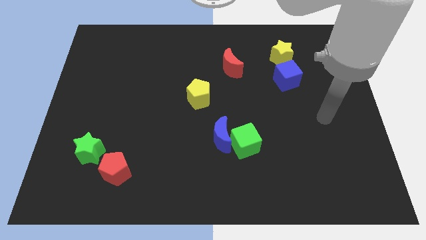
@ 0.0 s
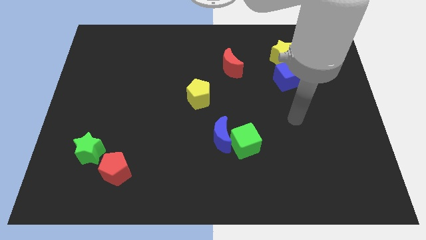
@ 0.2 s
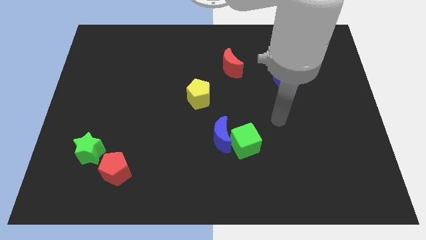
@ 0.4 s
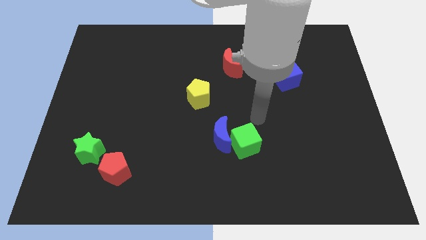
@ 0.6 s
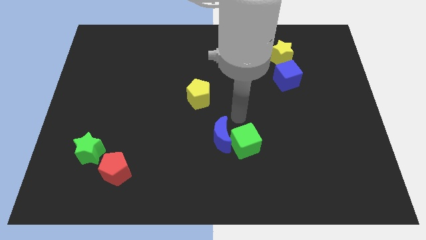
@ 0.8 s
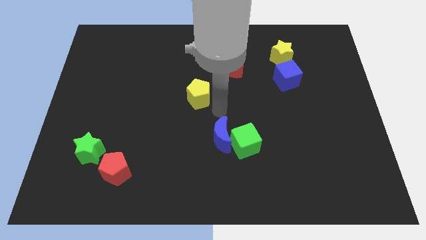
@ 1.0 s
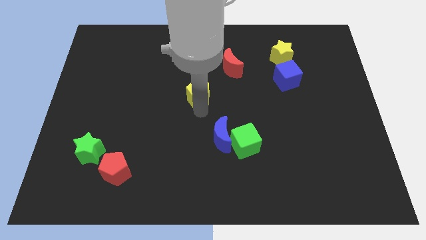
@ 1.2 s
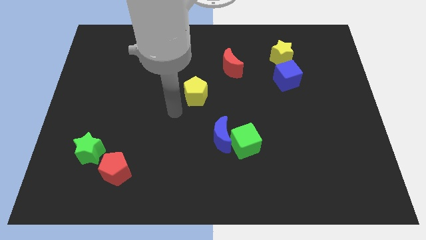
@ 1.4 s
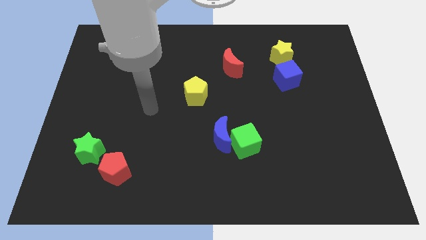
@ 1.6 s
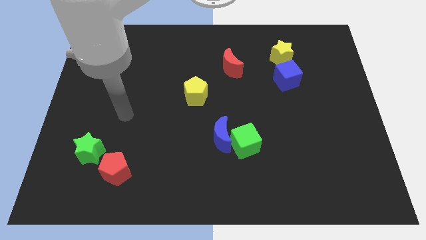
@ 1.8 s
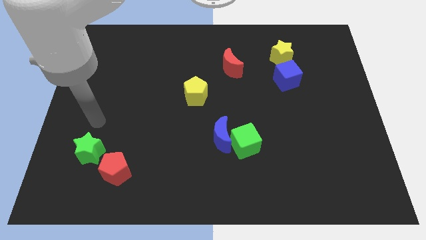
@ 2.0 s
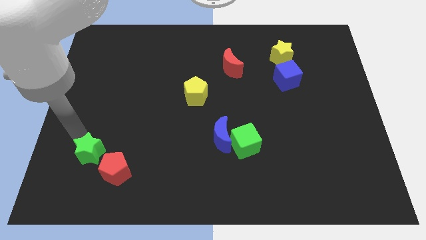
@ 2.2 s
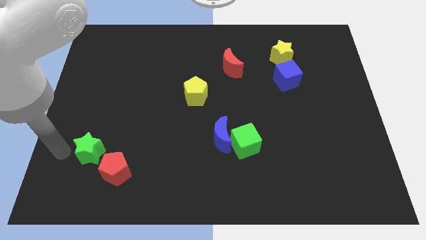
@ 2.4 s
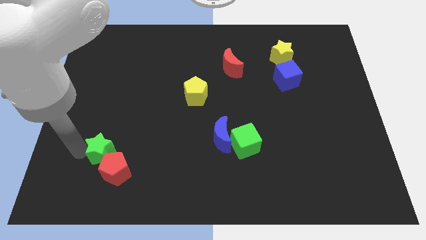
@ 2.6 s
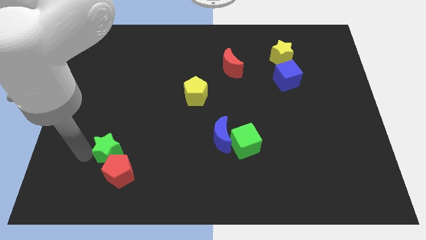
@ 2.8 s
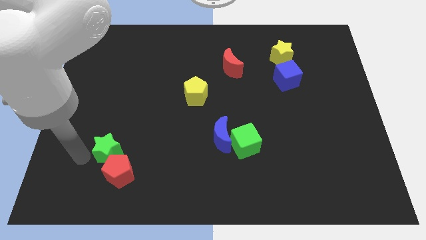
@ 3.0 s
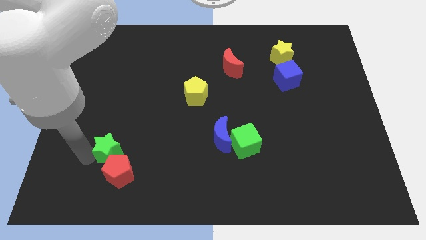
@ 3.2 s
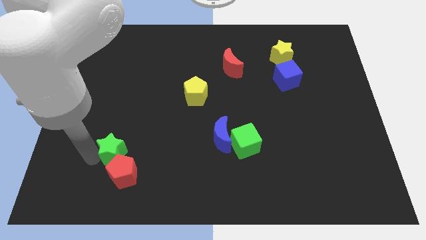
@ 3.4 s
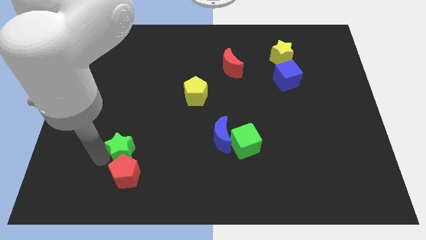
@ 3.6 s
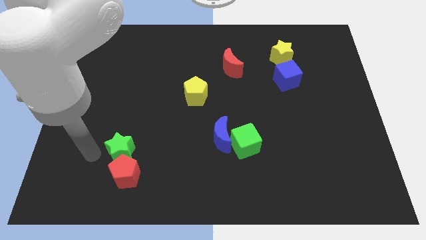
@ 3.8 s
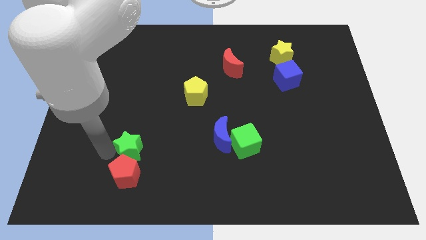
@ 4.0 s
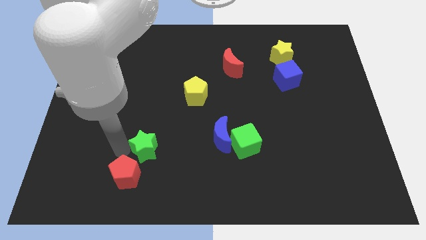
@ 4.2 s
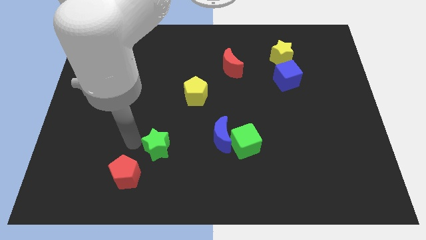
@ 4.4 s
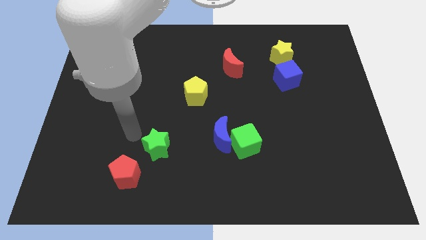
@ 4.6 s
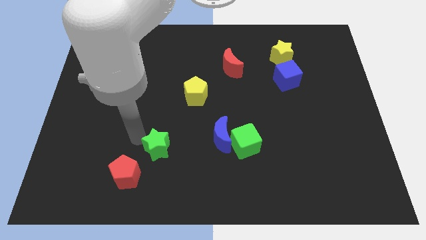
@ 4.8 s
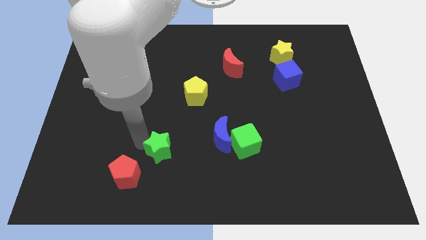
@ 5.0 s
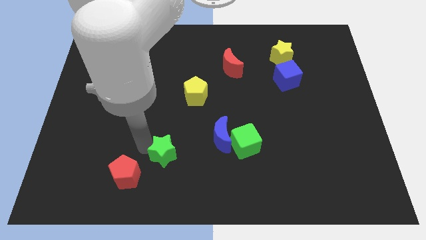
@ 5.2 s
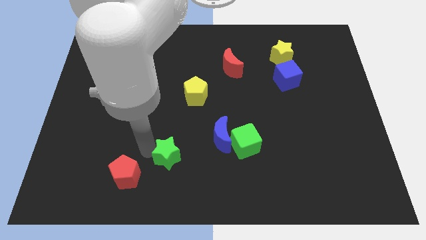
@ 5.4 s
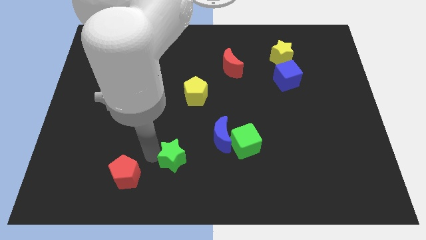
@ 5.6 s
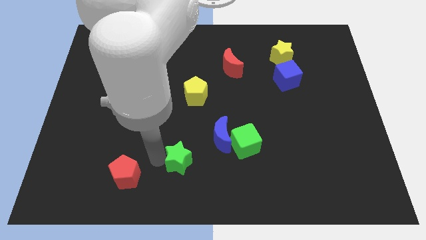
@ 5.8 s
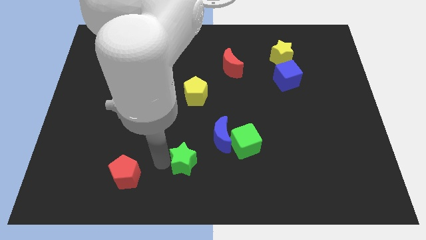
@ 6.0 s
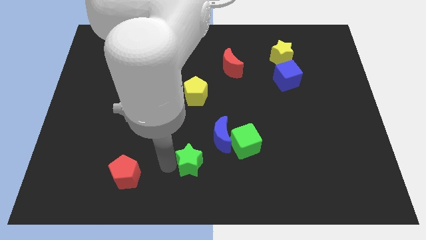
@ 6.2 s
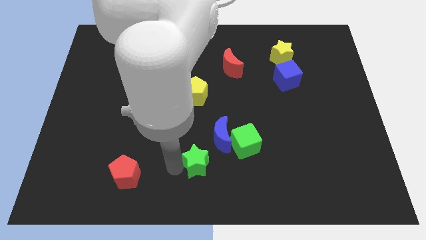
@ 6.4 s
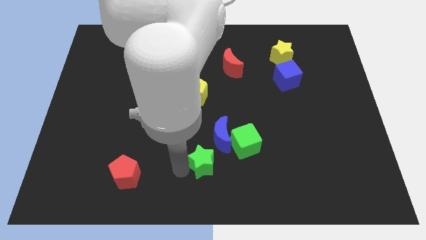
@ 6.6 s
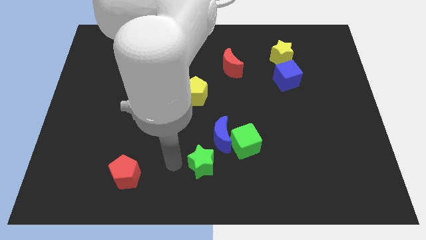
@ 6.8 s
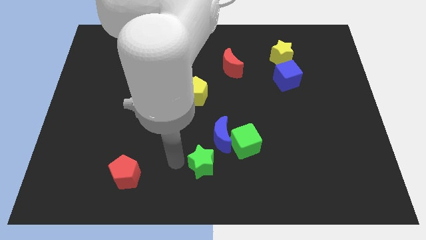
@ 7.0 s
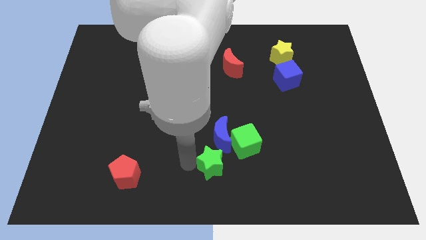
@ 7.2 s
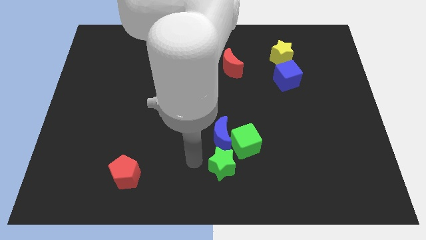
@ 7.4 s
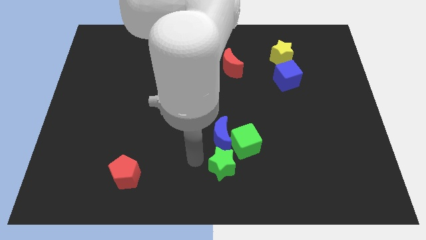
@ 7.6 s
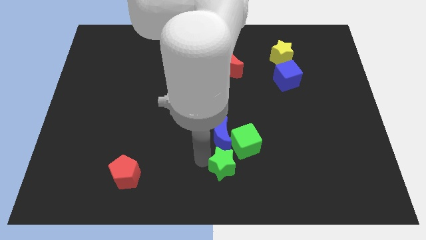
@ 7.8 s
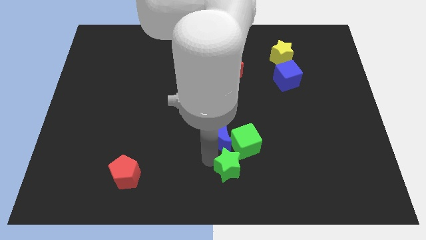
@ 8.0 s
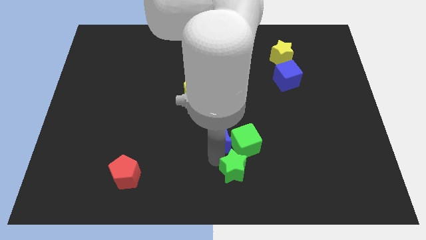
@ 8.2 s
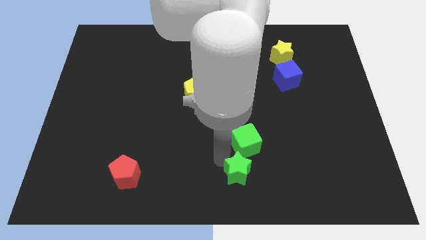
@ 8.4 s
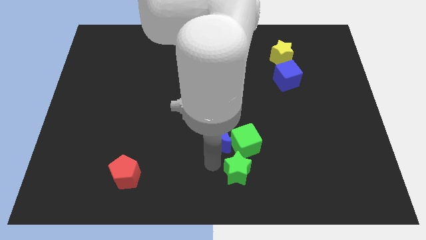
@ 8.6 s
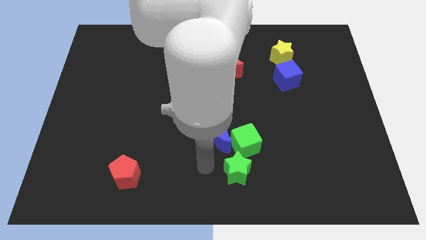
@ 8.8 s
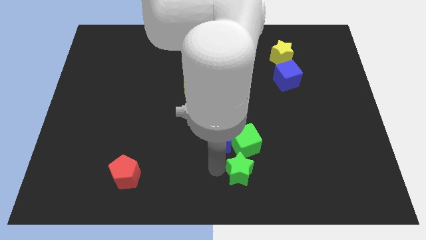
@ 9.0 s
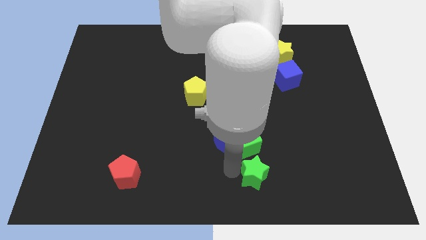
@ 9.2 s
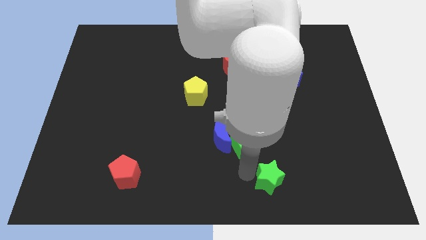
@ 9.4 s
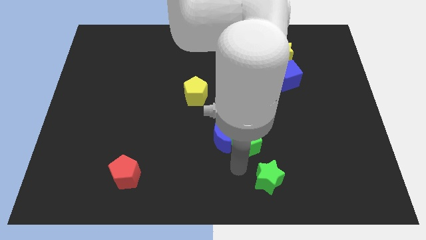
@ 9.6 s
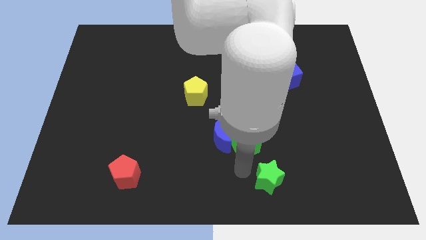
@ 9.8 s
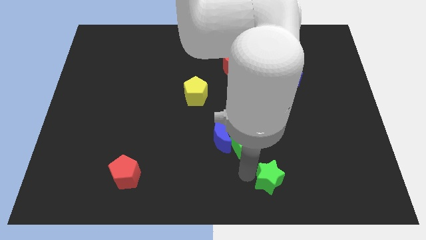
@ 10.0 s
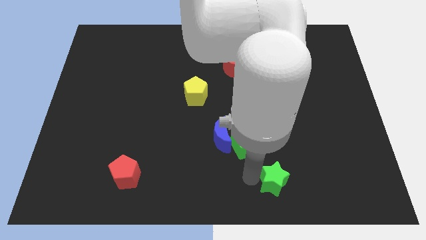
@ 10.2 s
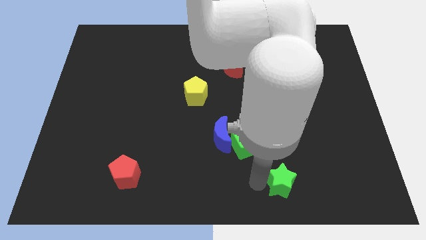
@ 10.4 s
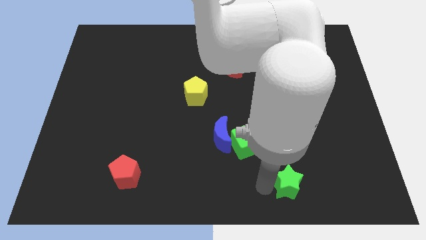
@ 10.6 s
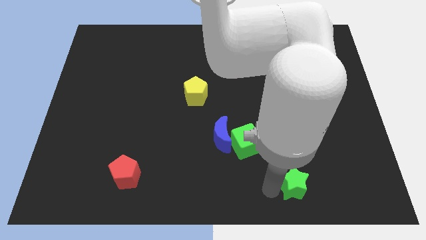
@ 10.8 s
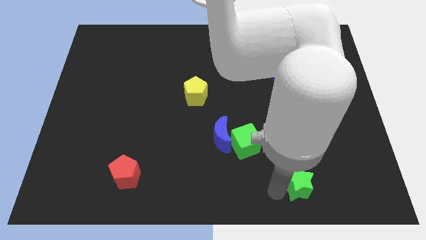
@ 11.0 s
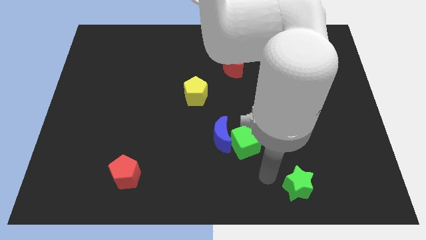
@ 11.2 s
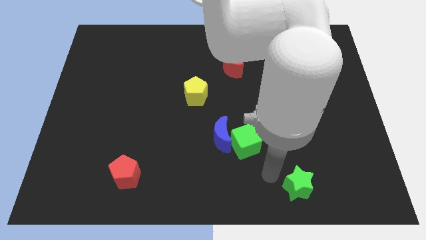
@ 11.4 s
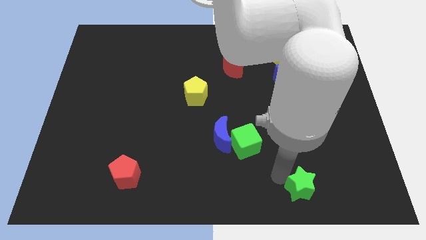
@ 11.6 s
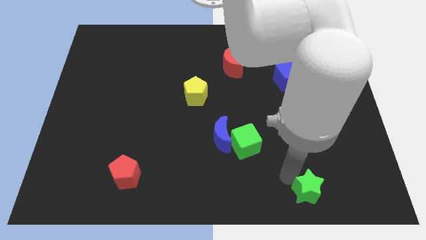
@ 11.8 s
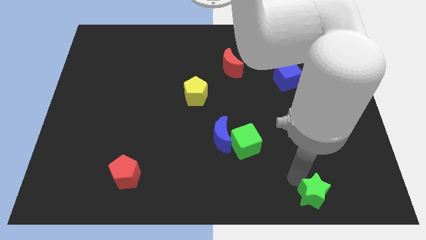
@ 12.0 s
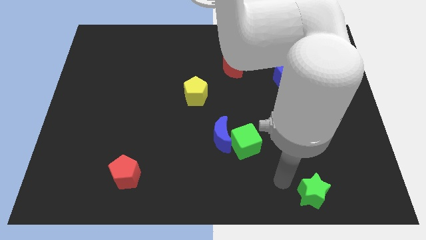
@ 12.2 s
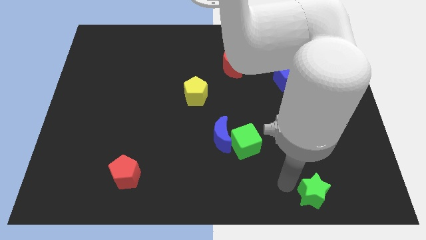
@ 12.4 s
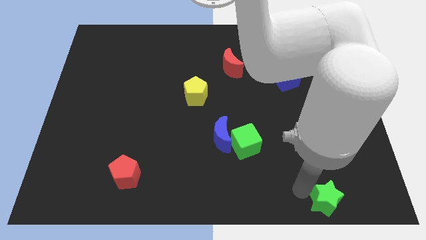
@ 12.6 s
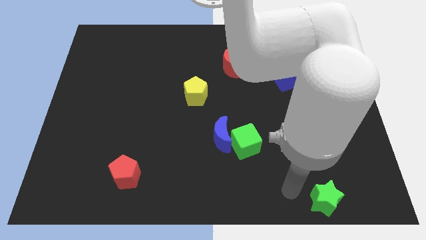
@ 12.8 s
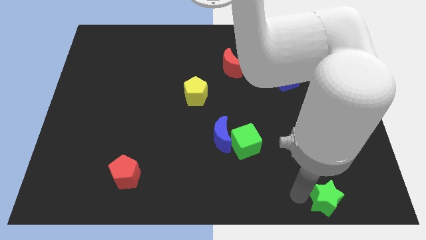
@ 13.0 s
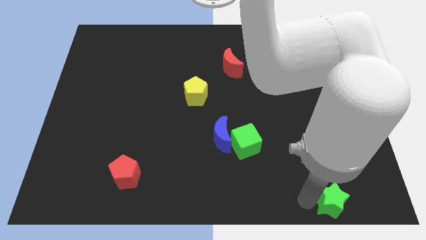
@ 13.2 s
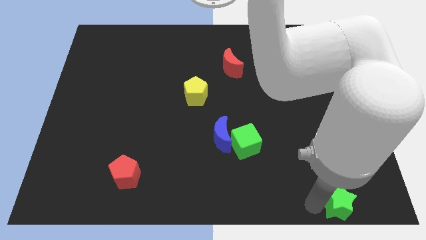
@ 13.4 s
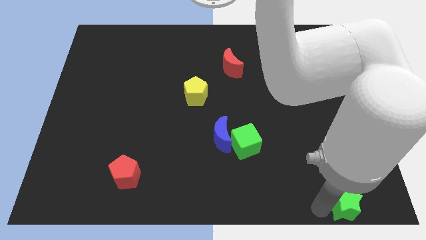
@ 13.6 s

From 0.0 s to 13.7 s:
move the green star to the bottom right of the board

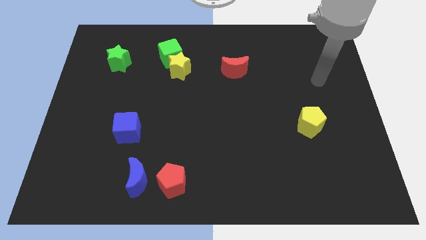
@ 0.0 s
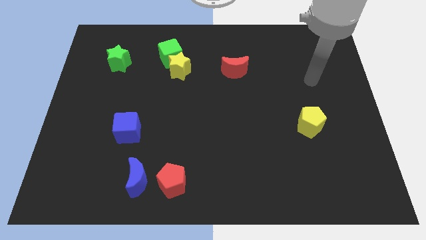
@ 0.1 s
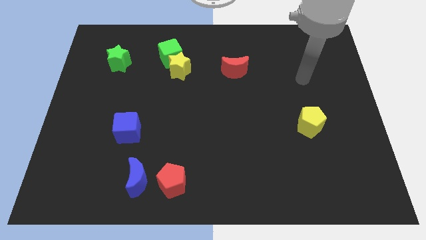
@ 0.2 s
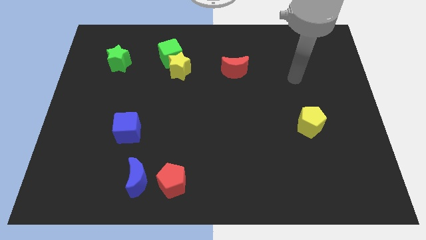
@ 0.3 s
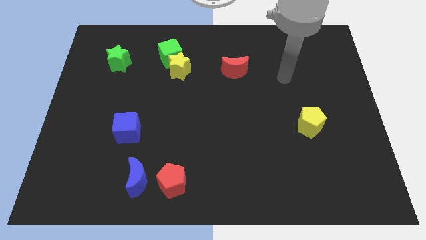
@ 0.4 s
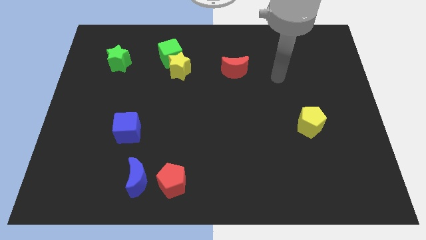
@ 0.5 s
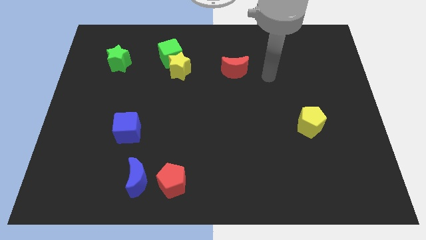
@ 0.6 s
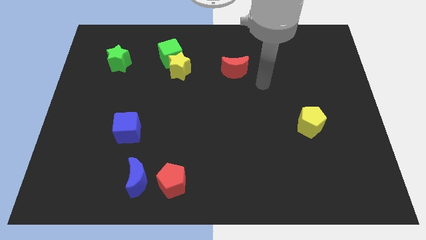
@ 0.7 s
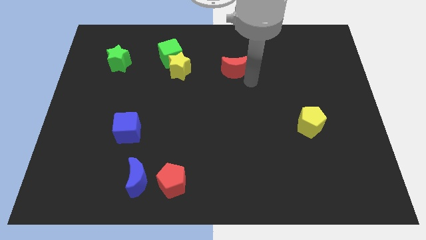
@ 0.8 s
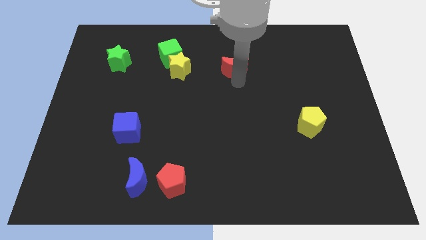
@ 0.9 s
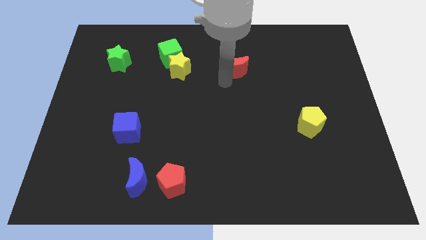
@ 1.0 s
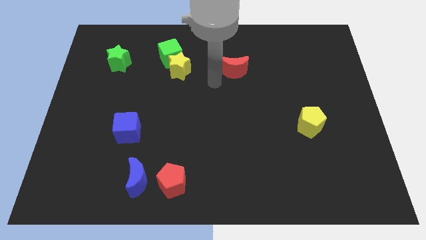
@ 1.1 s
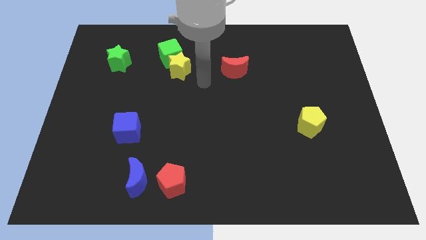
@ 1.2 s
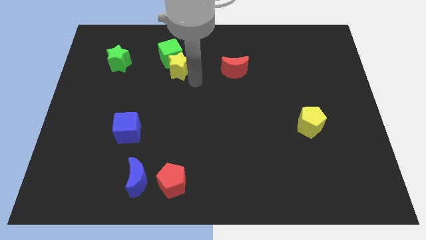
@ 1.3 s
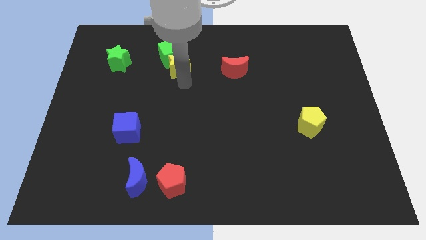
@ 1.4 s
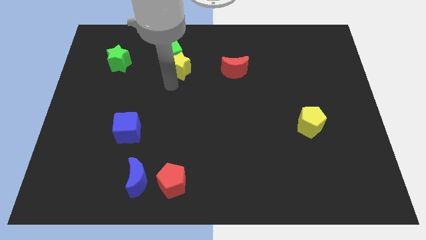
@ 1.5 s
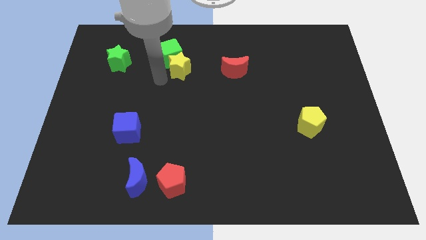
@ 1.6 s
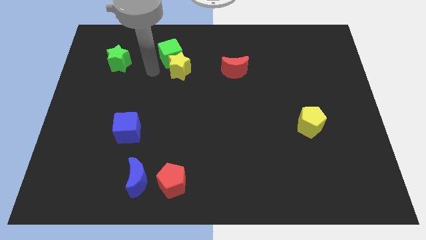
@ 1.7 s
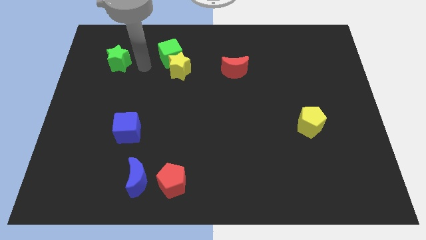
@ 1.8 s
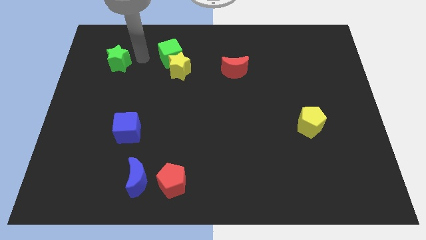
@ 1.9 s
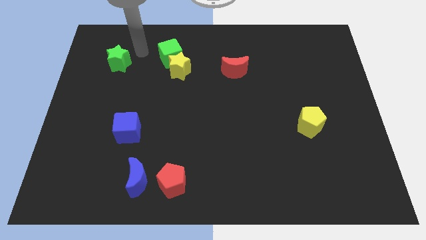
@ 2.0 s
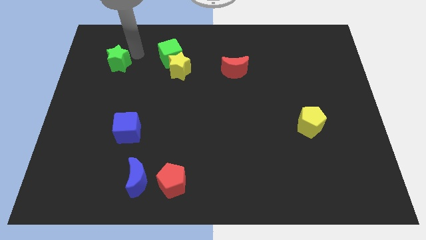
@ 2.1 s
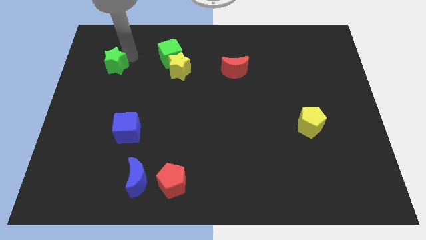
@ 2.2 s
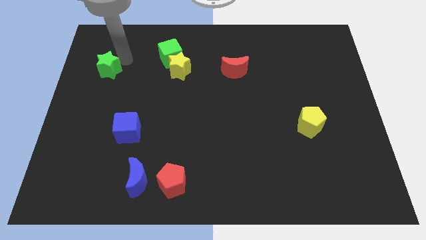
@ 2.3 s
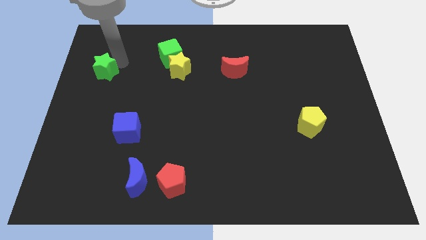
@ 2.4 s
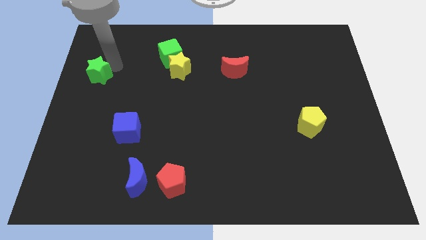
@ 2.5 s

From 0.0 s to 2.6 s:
move the green star to the left side of the board
